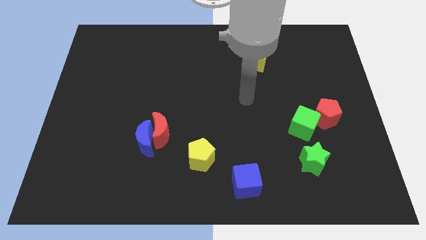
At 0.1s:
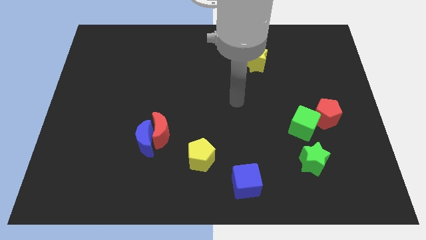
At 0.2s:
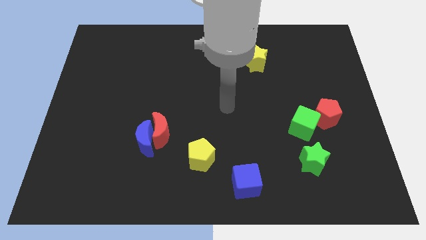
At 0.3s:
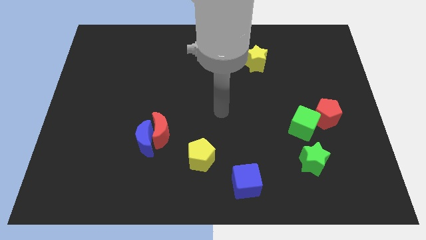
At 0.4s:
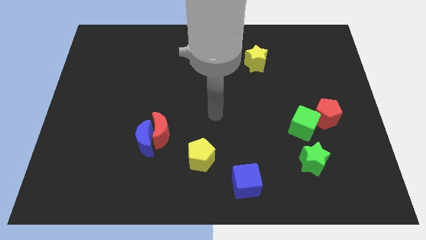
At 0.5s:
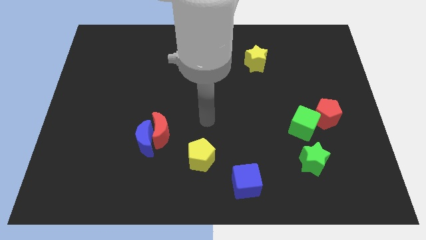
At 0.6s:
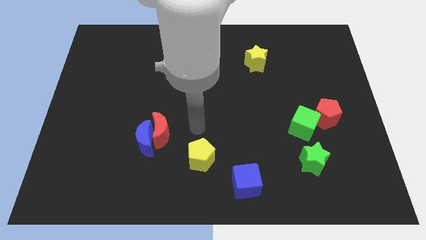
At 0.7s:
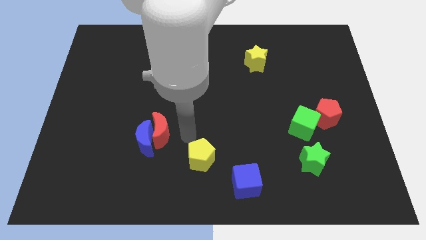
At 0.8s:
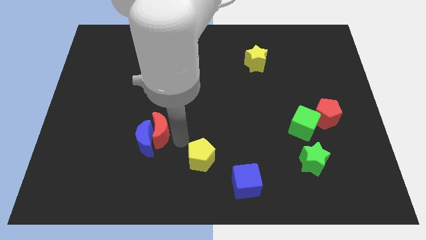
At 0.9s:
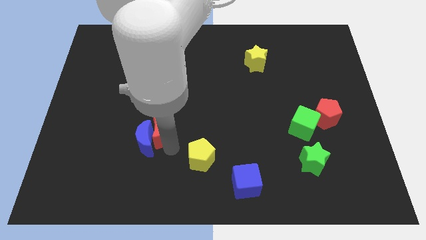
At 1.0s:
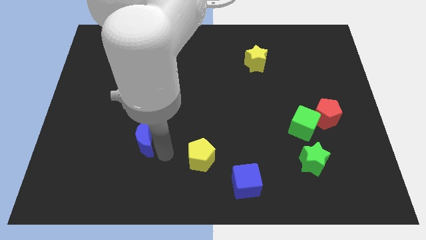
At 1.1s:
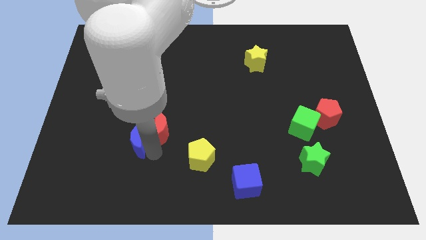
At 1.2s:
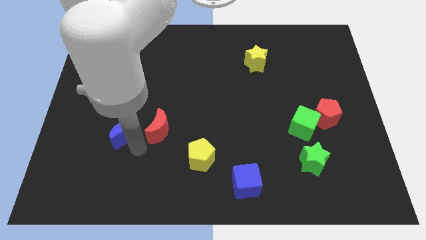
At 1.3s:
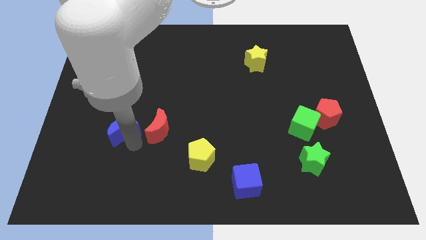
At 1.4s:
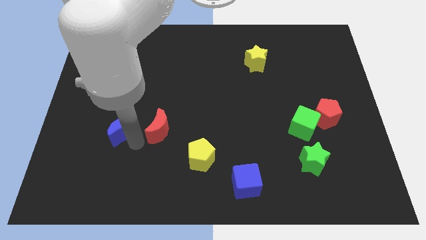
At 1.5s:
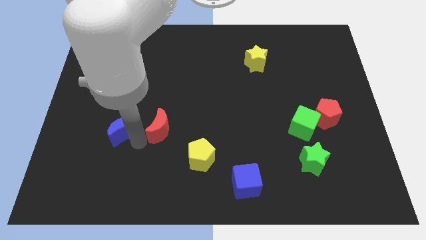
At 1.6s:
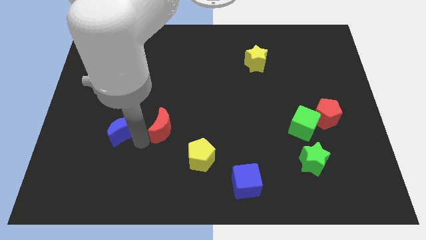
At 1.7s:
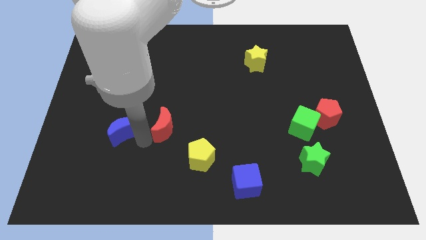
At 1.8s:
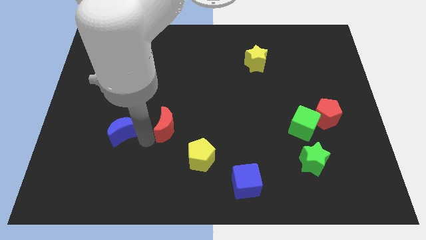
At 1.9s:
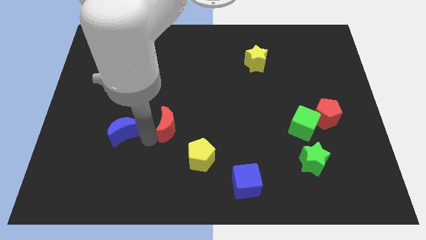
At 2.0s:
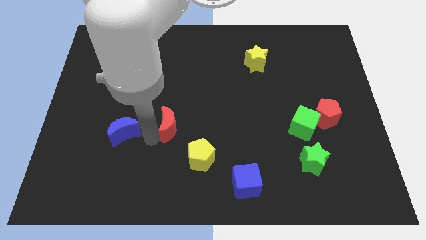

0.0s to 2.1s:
separate the red moon from the blue moon

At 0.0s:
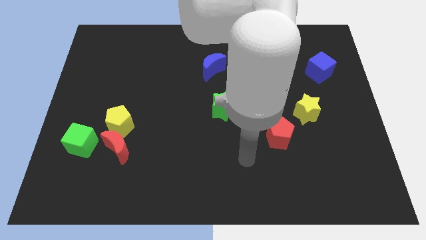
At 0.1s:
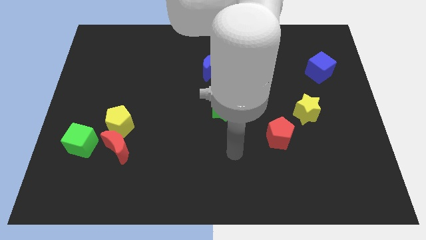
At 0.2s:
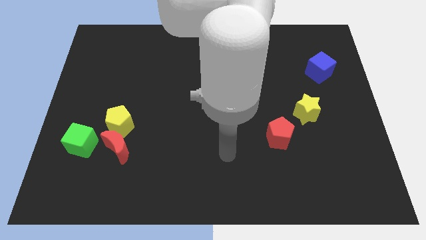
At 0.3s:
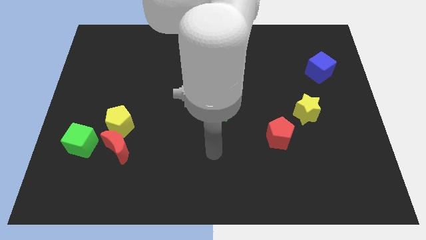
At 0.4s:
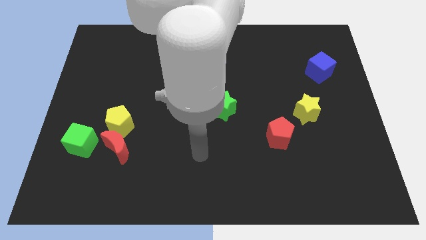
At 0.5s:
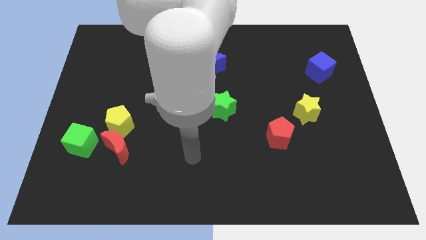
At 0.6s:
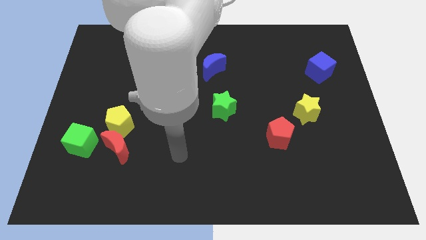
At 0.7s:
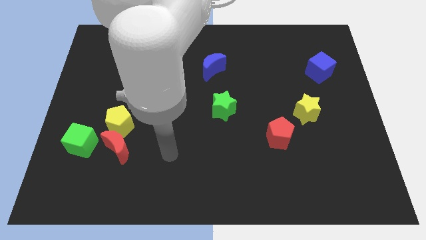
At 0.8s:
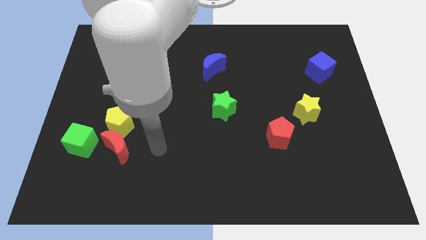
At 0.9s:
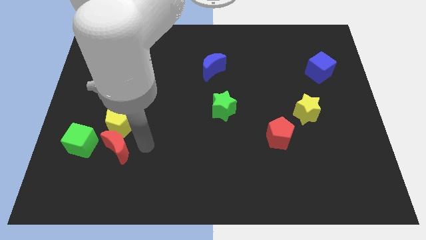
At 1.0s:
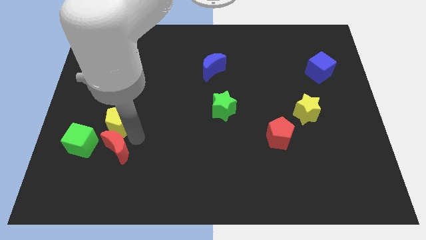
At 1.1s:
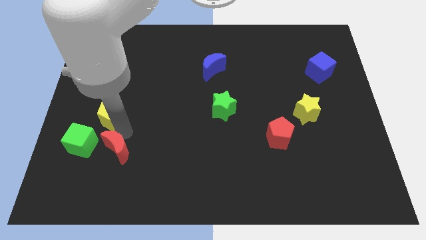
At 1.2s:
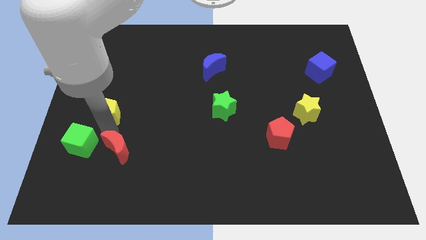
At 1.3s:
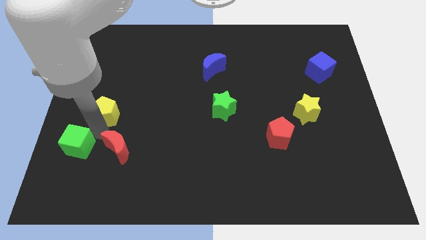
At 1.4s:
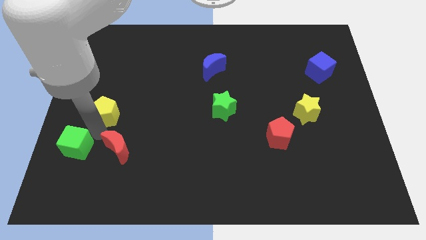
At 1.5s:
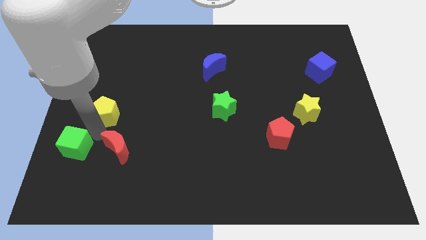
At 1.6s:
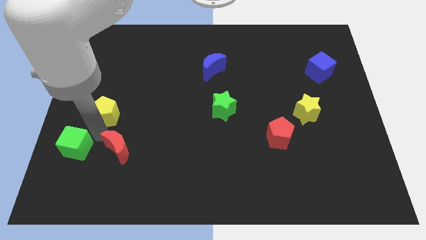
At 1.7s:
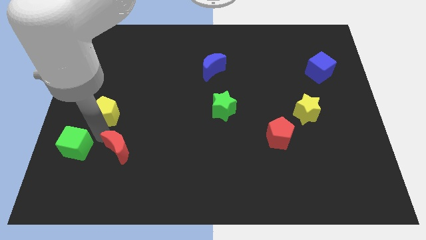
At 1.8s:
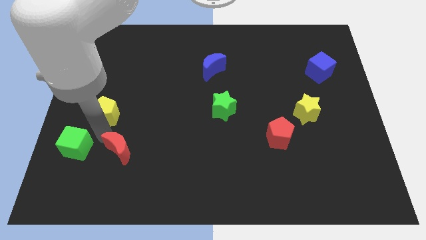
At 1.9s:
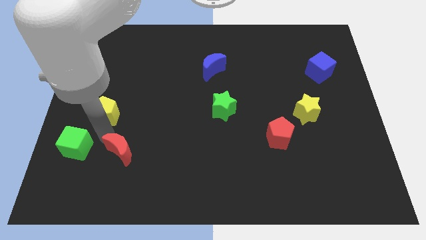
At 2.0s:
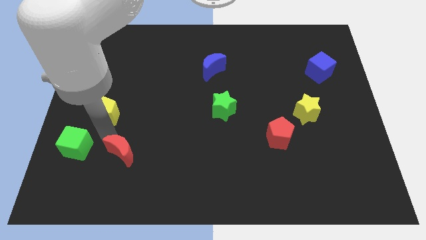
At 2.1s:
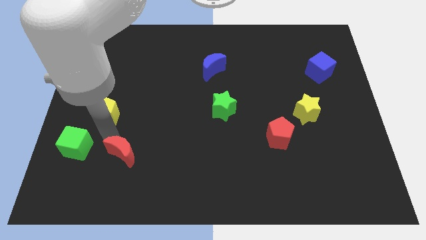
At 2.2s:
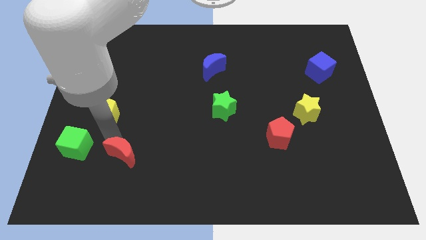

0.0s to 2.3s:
separate the red moon from the yellow pentagon and green cube

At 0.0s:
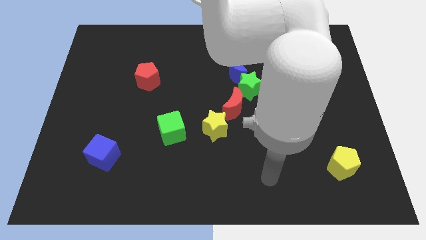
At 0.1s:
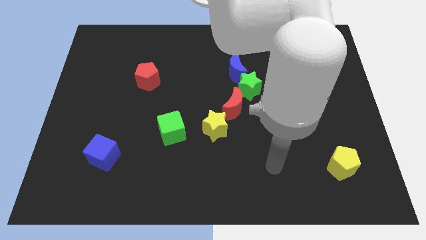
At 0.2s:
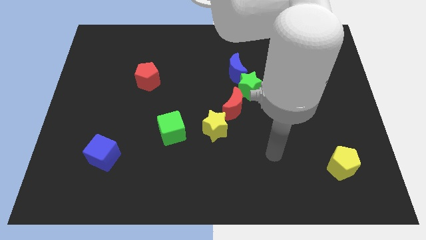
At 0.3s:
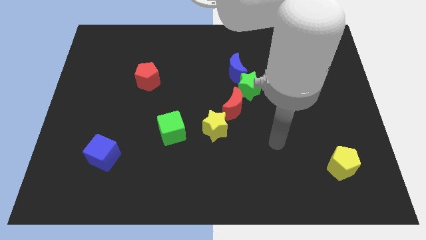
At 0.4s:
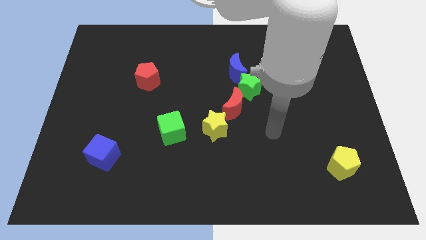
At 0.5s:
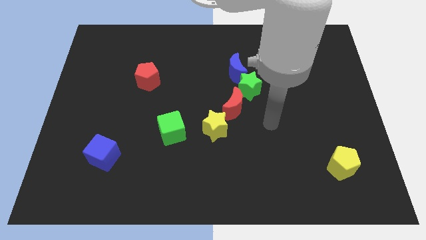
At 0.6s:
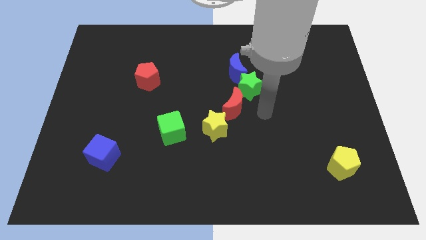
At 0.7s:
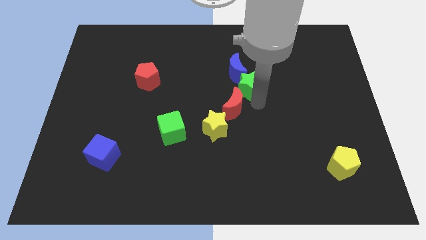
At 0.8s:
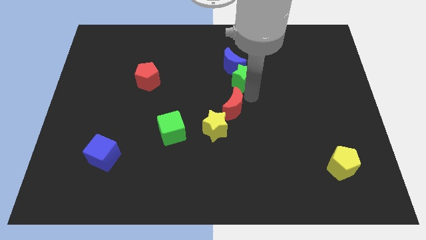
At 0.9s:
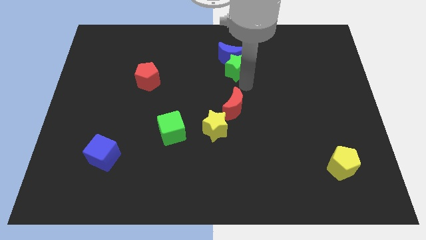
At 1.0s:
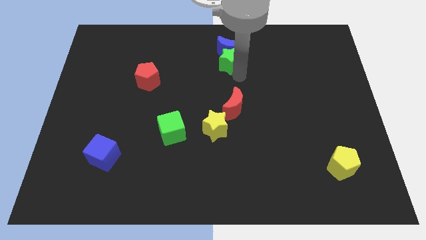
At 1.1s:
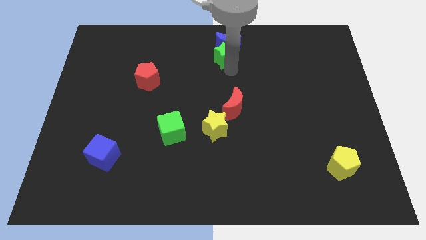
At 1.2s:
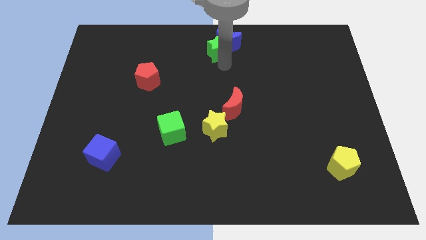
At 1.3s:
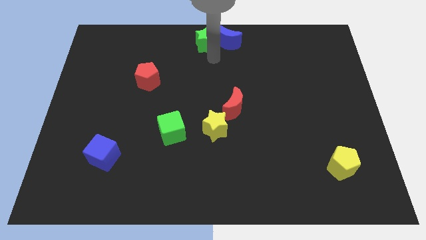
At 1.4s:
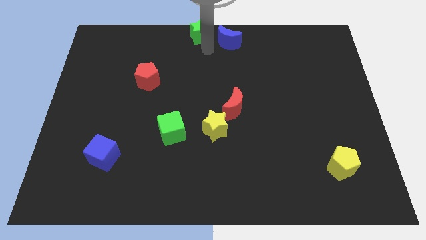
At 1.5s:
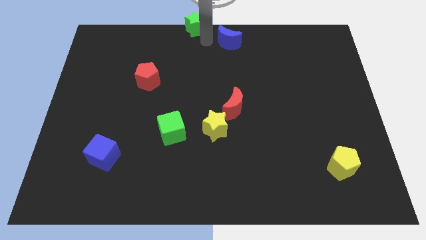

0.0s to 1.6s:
move the blue moon away from the green star

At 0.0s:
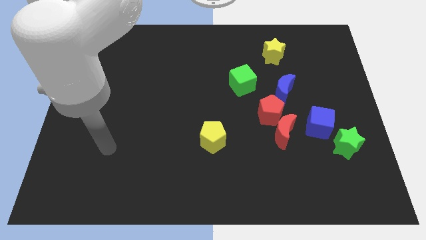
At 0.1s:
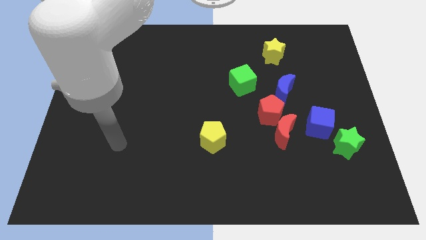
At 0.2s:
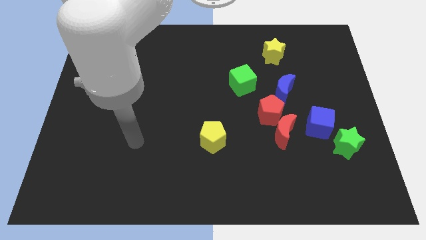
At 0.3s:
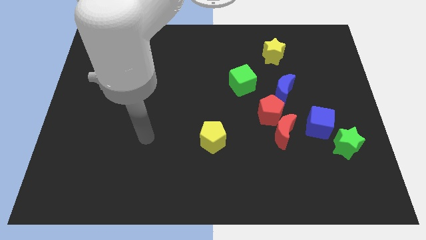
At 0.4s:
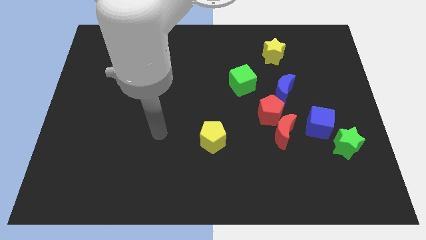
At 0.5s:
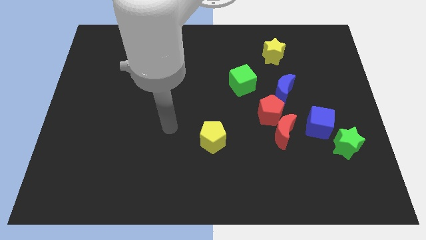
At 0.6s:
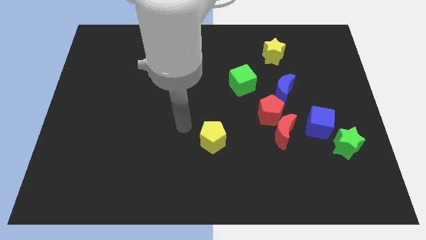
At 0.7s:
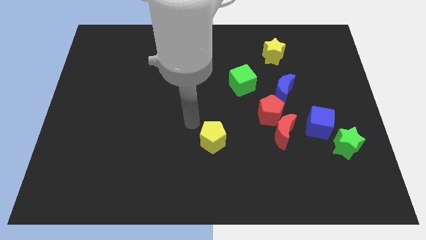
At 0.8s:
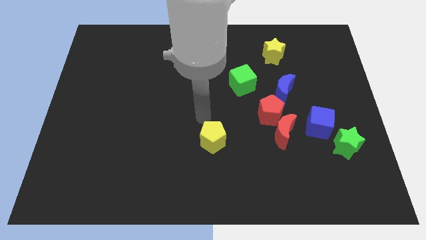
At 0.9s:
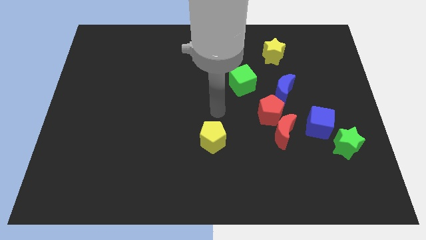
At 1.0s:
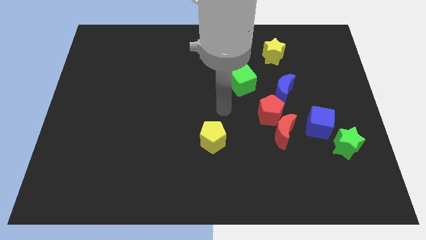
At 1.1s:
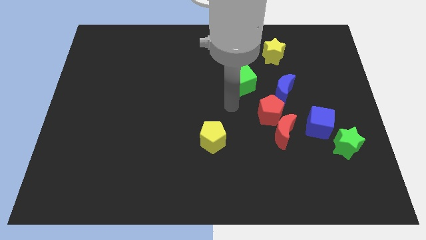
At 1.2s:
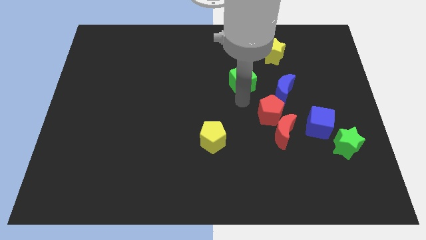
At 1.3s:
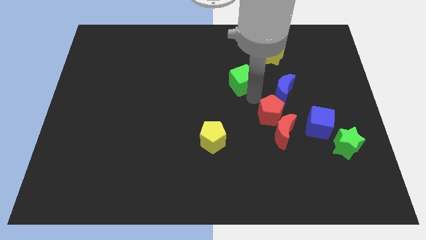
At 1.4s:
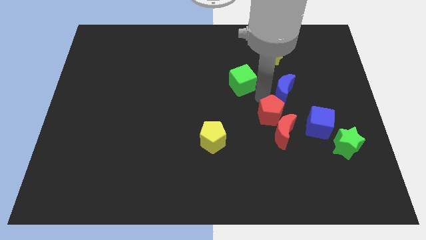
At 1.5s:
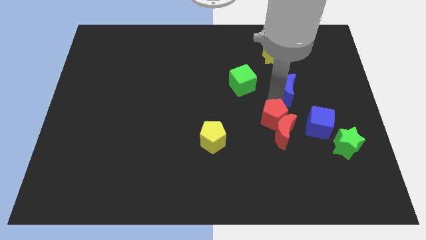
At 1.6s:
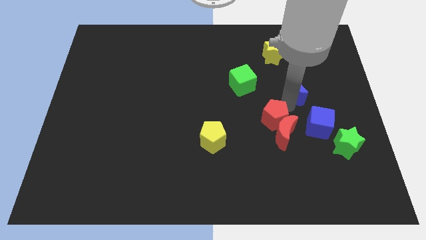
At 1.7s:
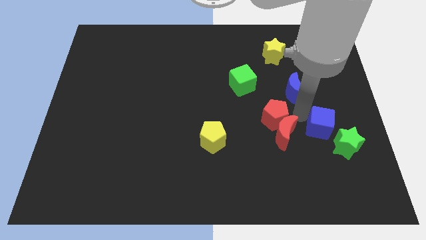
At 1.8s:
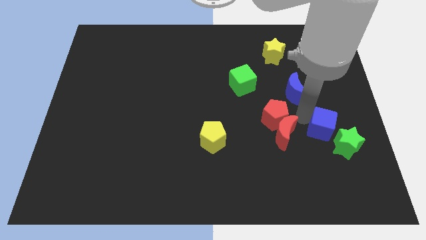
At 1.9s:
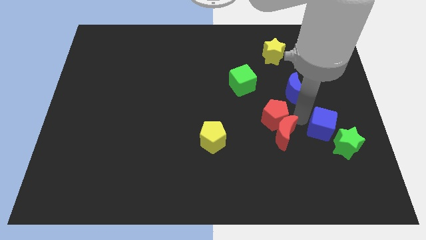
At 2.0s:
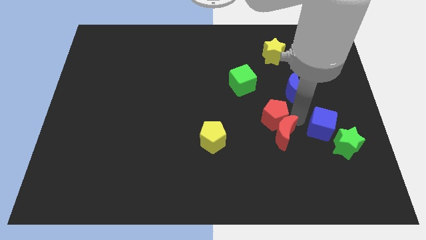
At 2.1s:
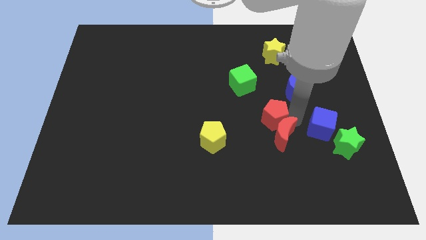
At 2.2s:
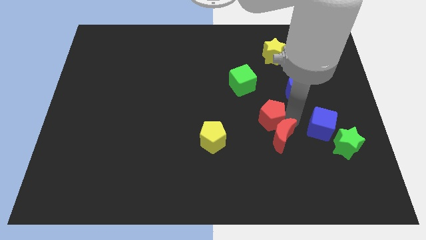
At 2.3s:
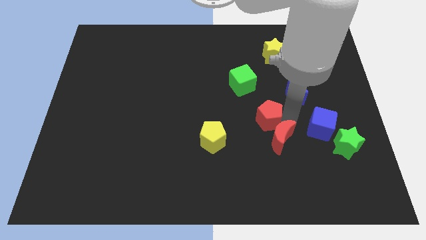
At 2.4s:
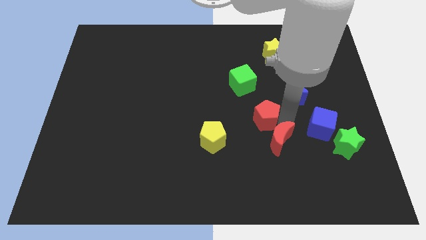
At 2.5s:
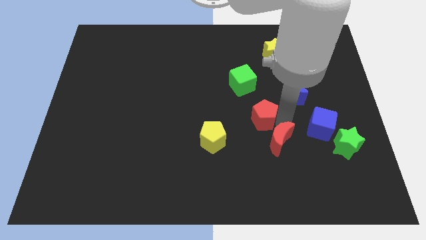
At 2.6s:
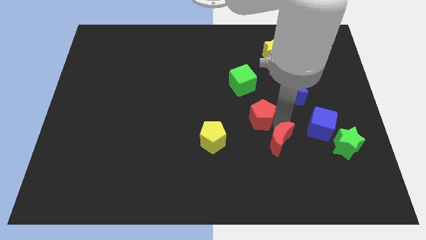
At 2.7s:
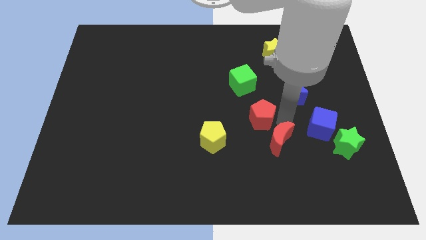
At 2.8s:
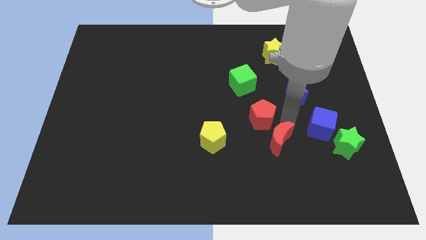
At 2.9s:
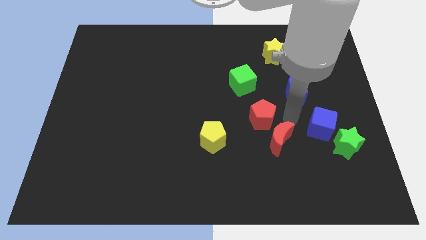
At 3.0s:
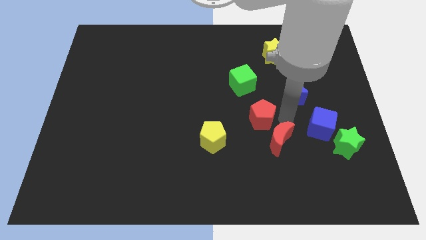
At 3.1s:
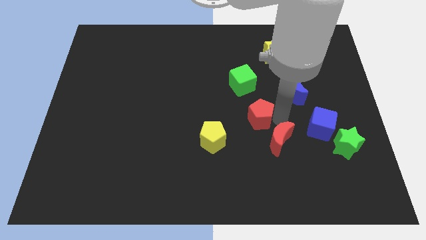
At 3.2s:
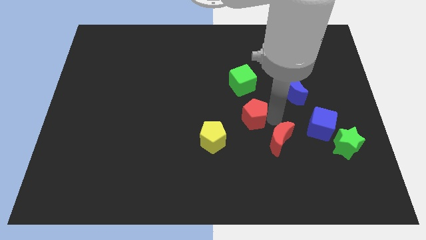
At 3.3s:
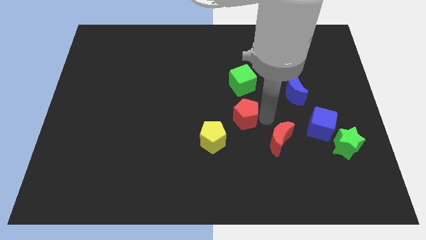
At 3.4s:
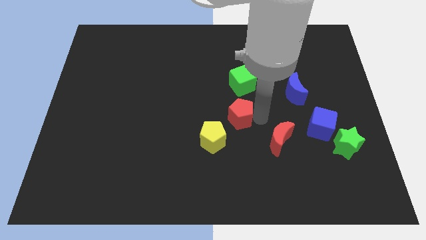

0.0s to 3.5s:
move the red pentagon away from the red moon and blue moon
